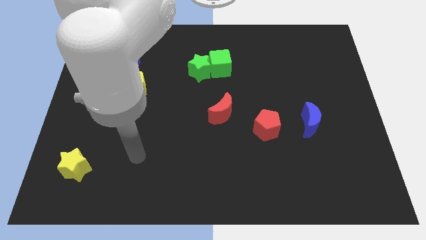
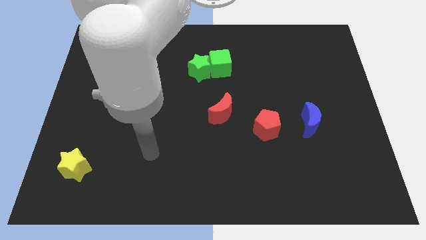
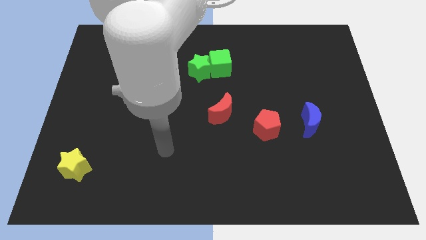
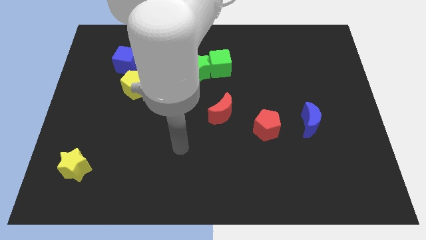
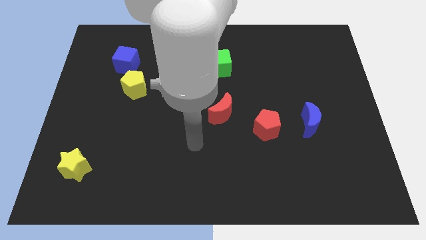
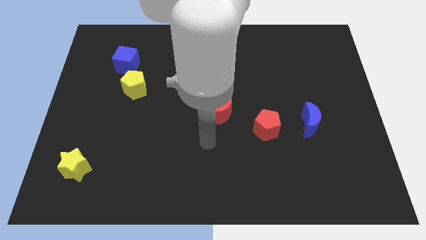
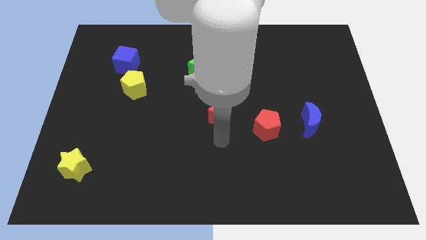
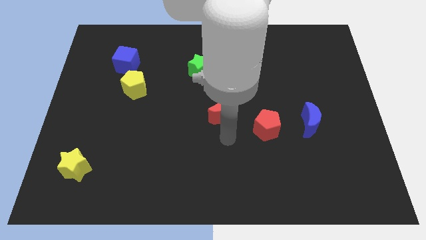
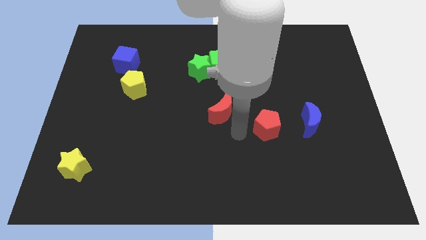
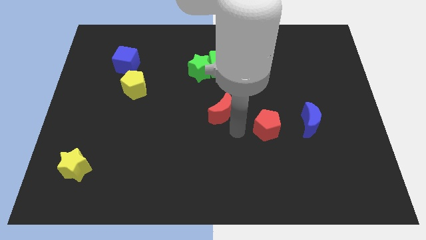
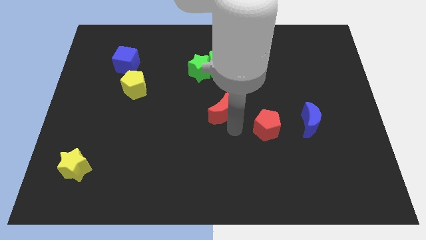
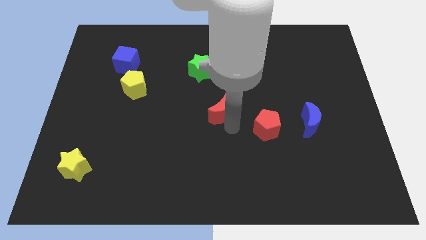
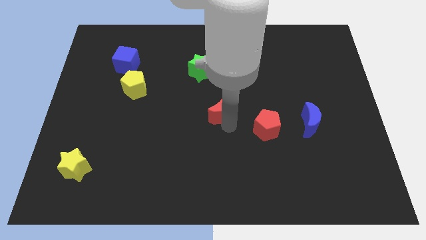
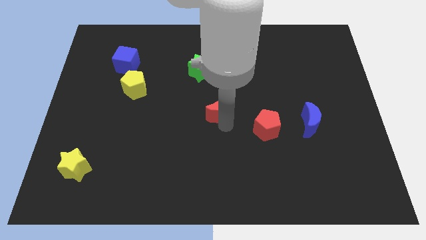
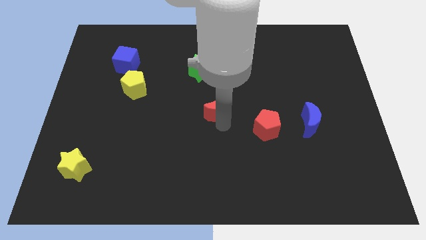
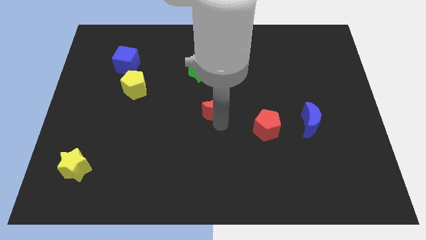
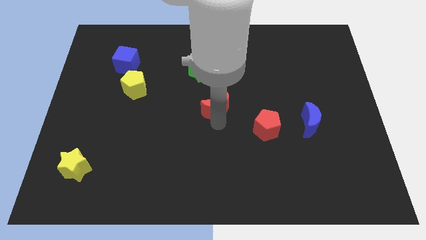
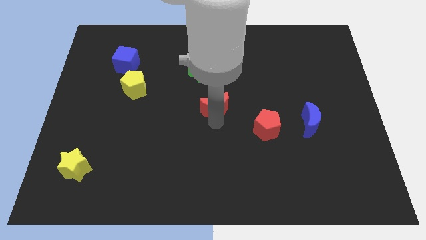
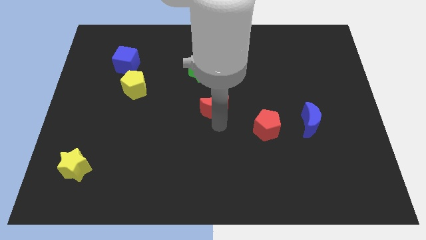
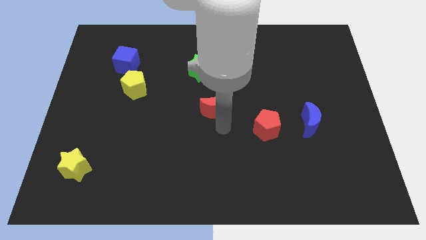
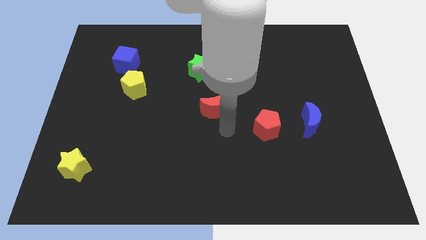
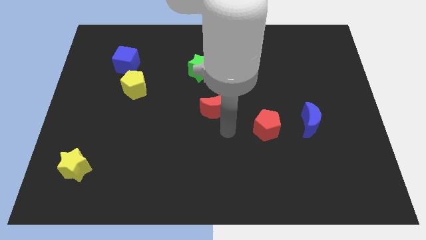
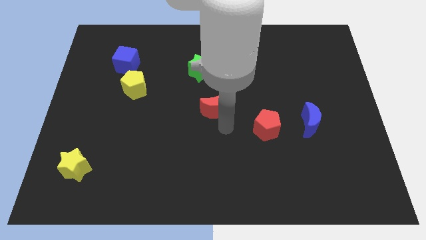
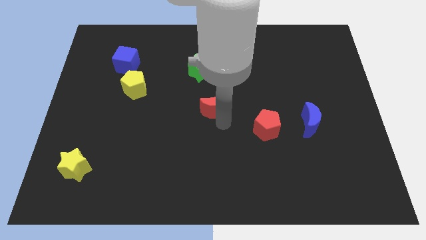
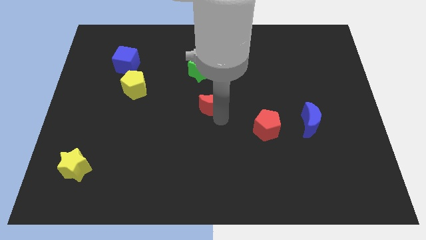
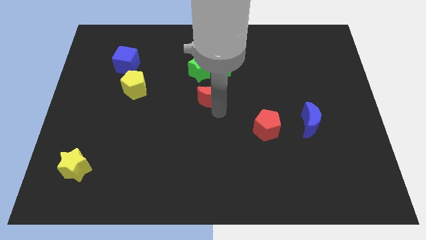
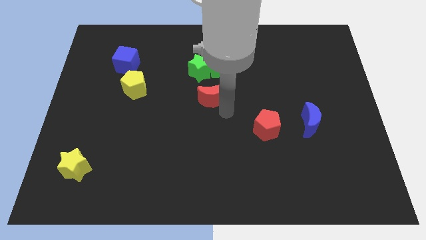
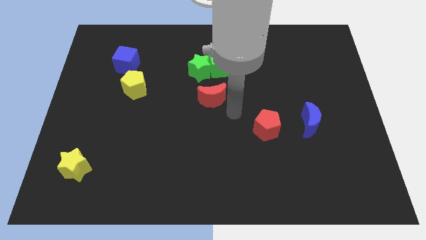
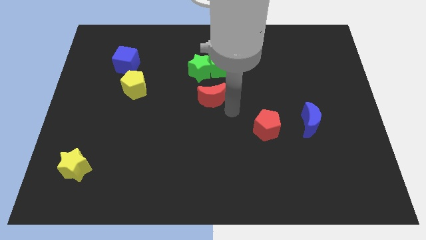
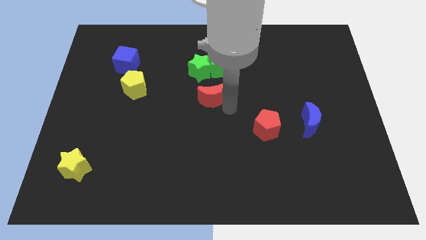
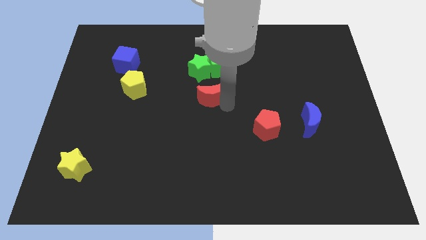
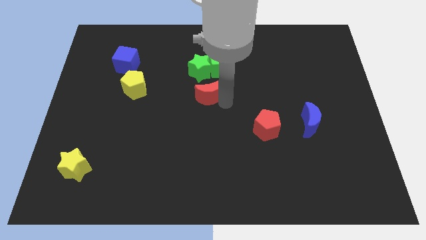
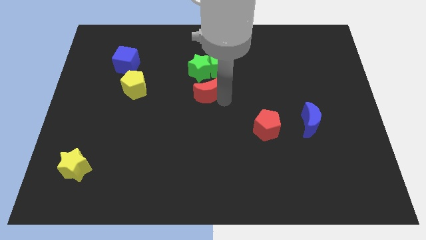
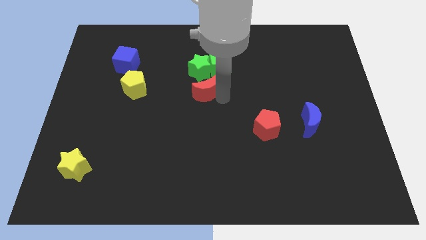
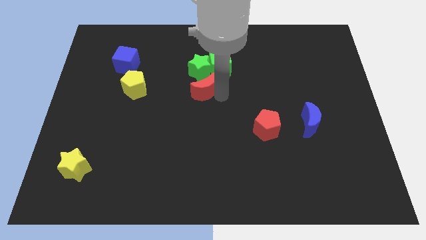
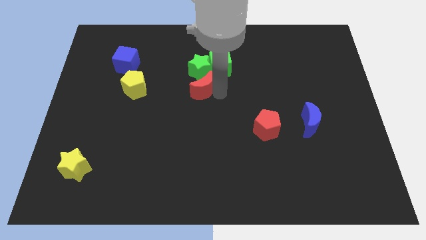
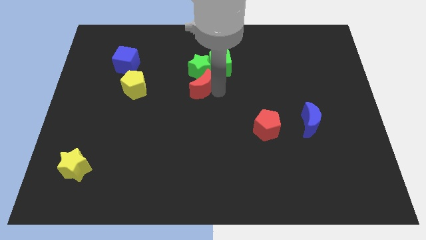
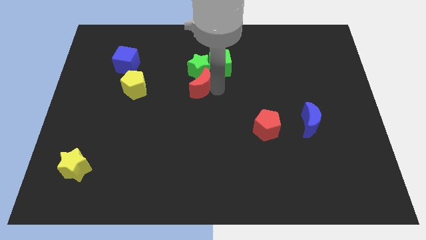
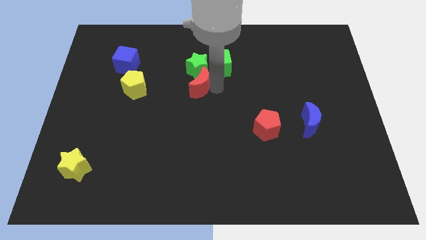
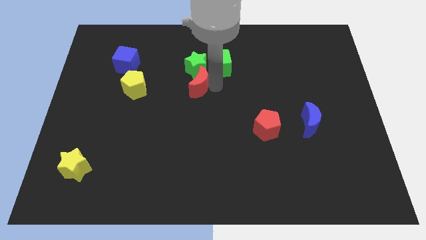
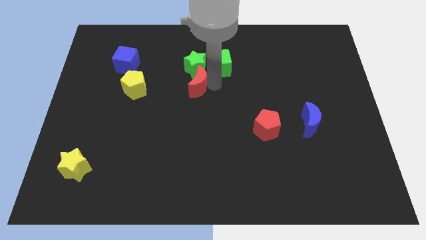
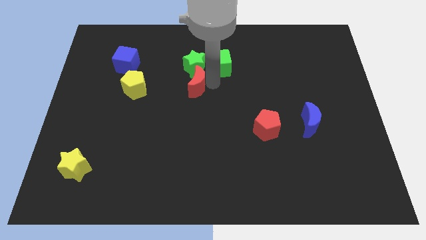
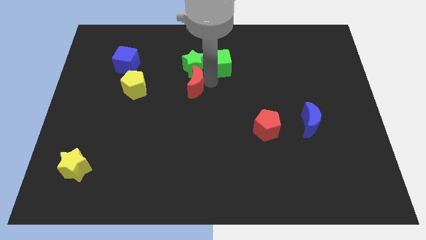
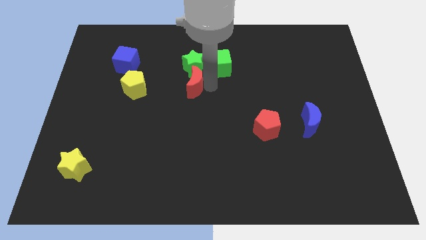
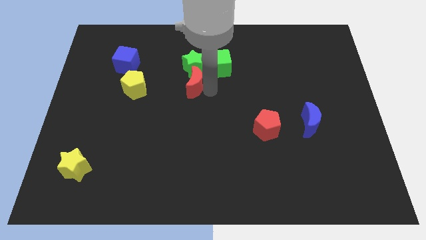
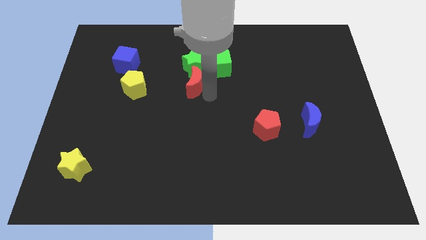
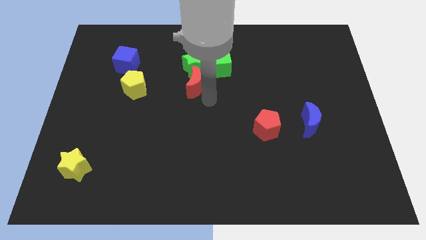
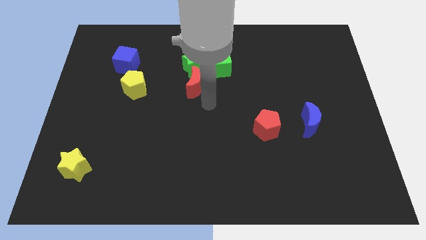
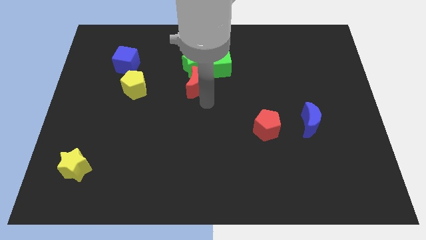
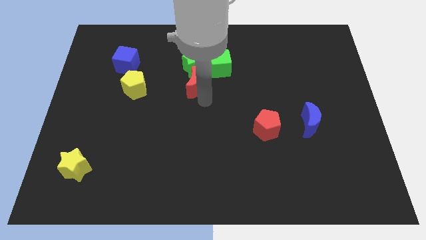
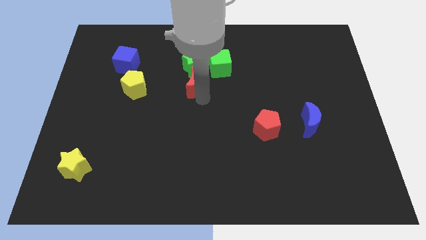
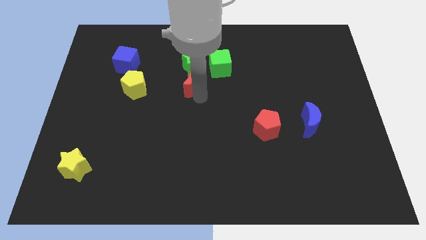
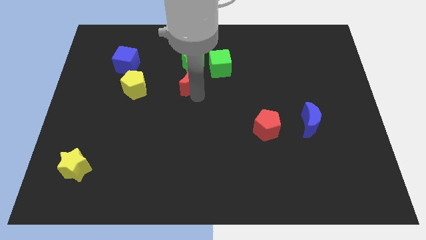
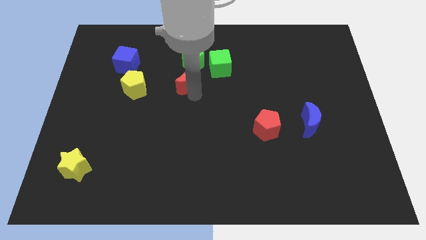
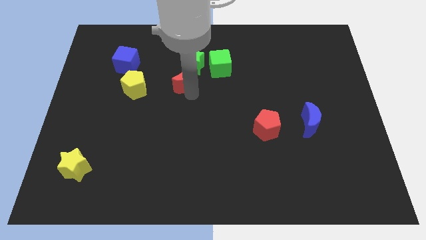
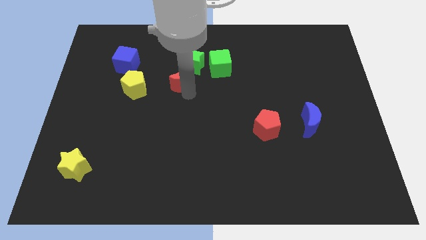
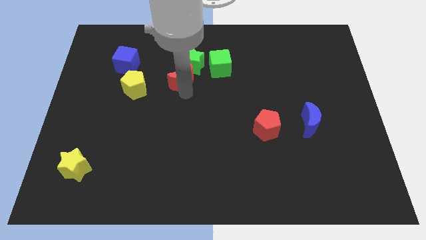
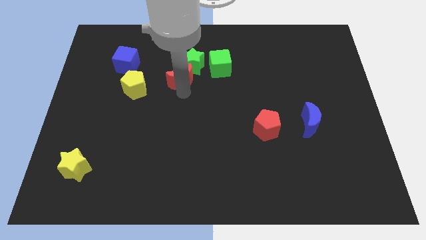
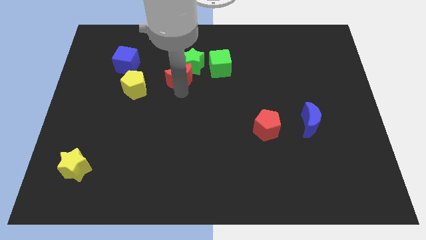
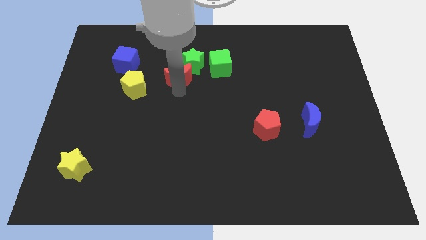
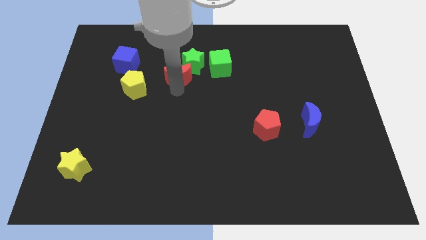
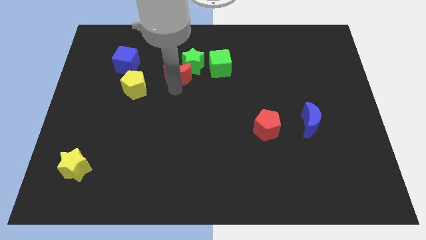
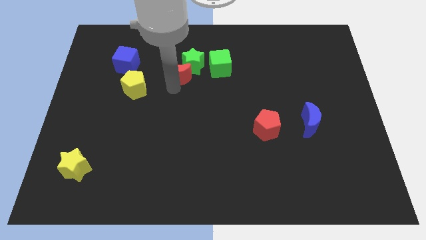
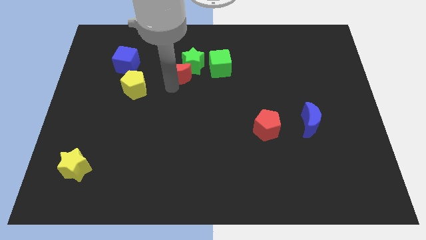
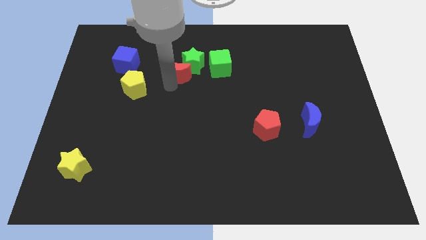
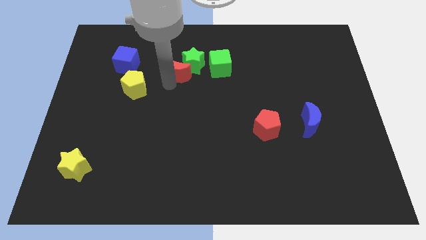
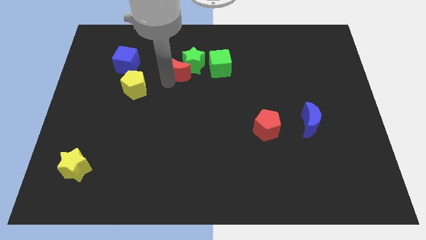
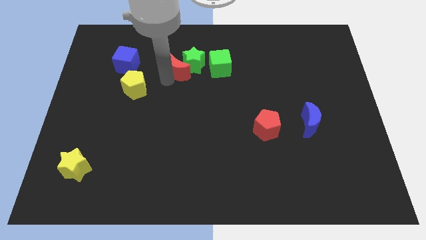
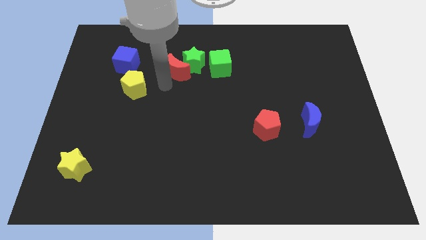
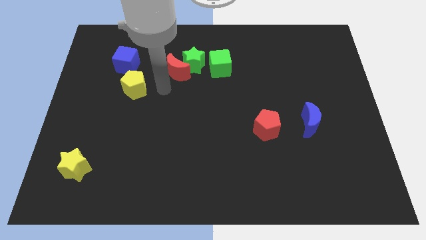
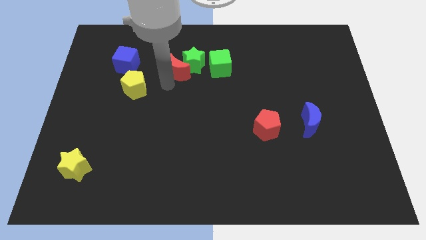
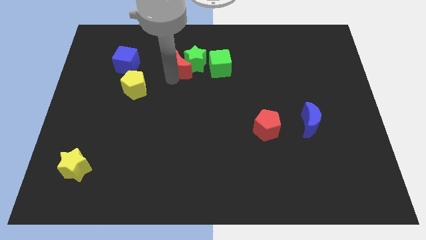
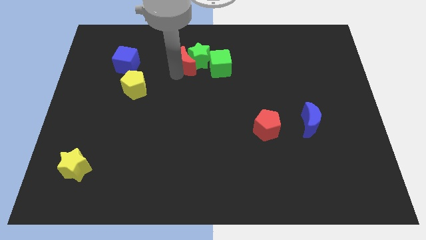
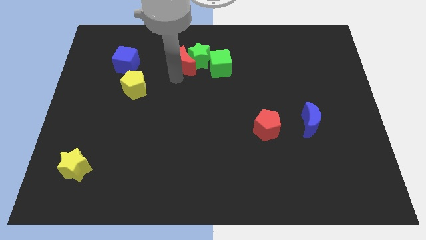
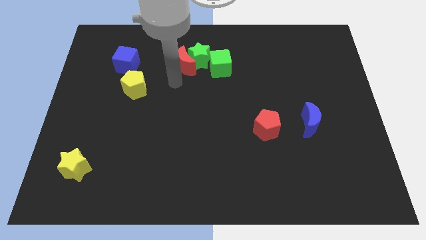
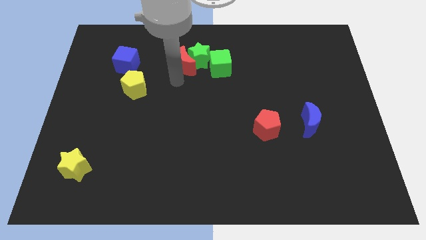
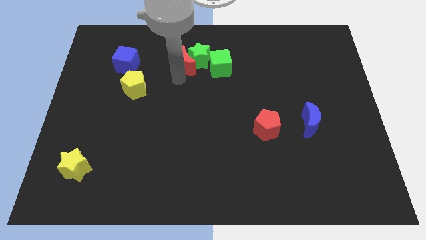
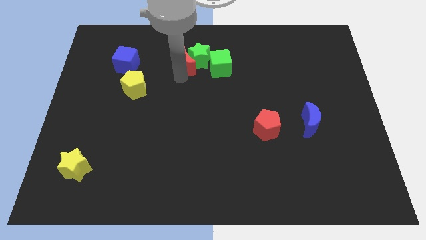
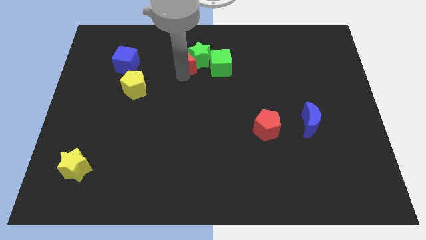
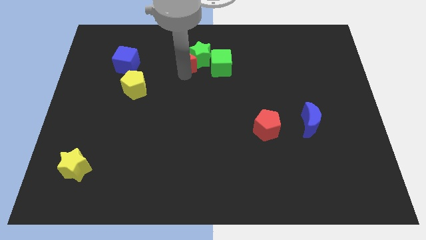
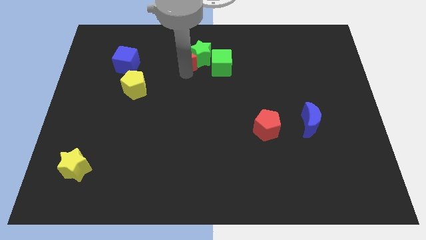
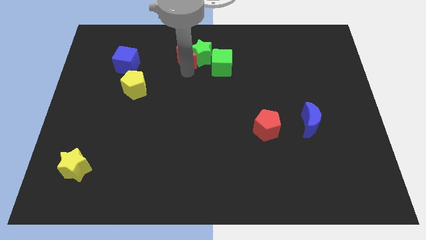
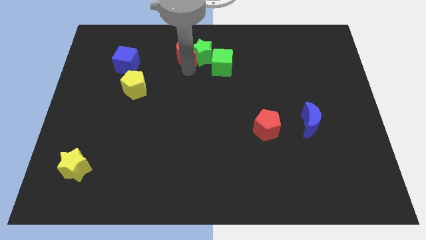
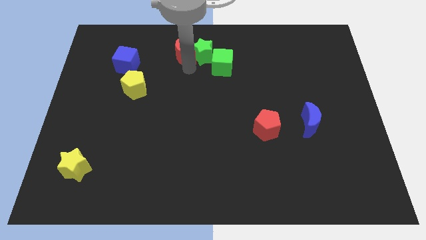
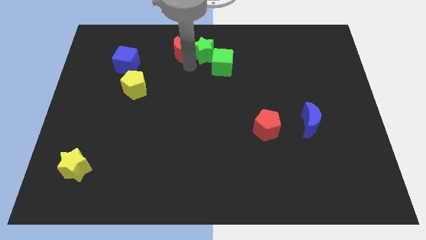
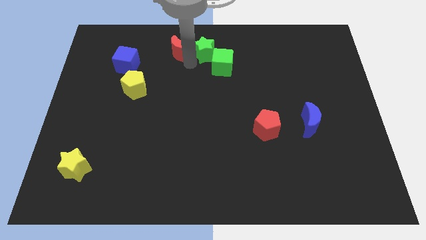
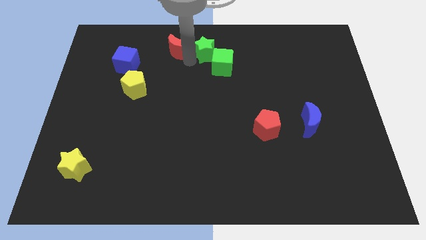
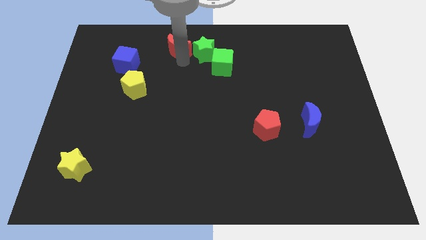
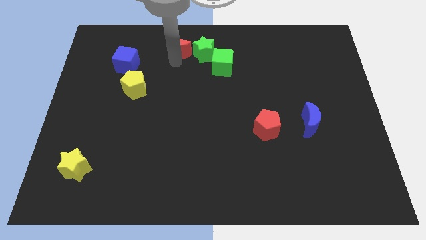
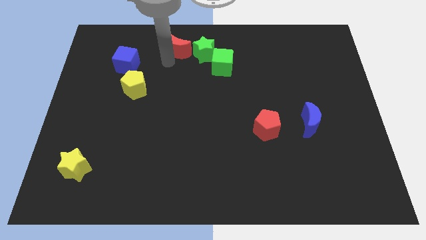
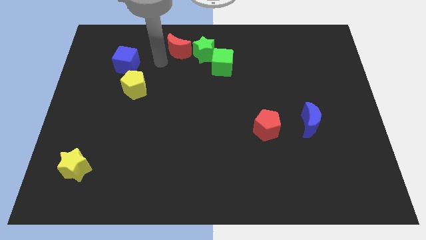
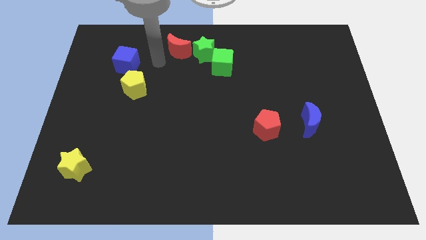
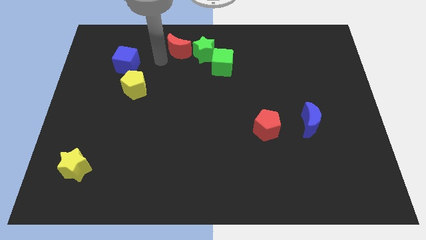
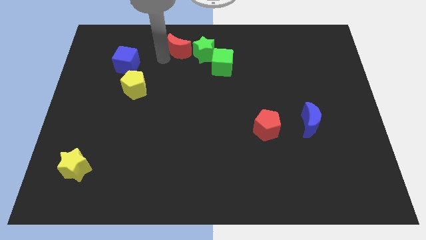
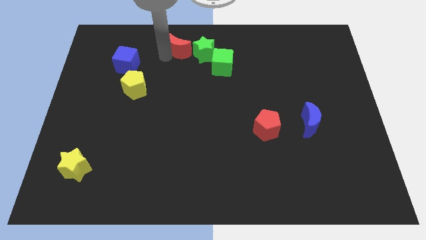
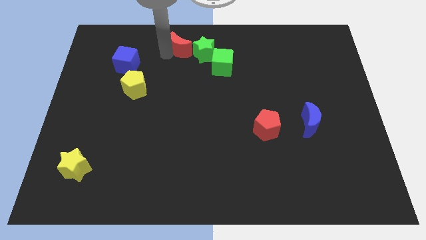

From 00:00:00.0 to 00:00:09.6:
slide the red moon to the towards your base
